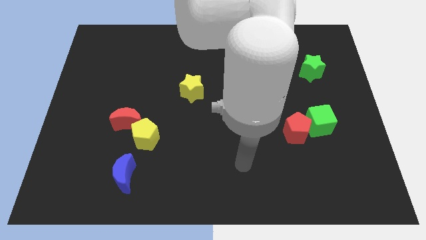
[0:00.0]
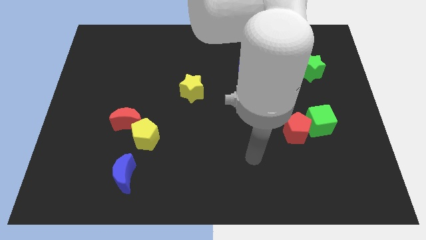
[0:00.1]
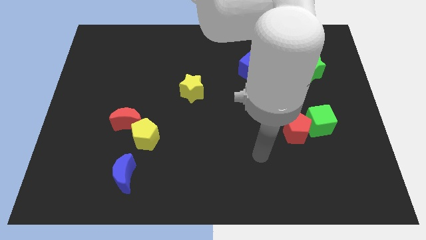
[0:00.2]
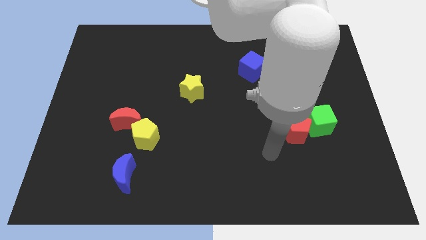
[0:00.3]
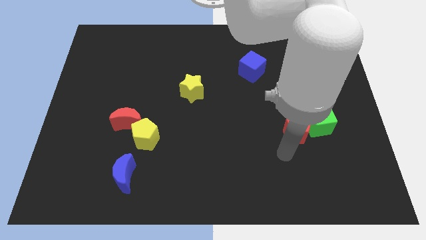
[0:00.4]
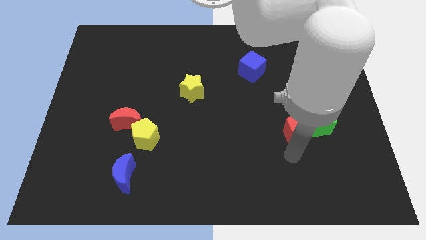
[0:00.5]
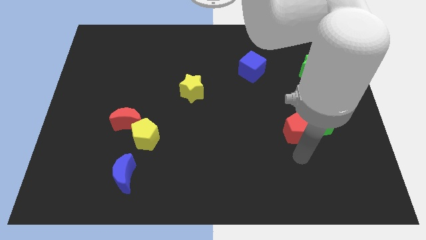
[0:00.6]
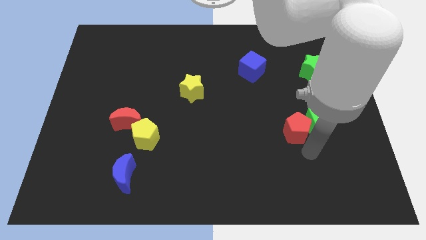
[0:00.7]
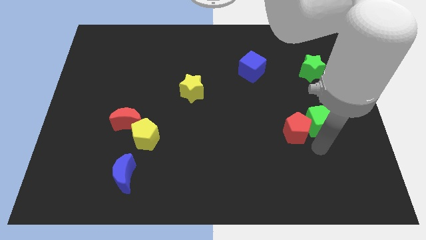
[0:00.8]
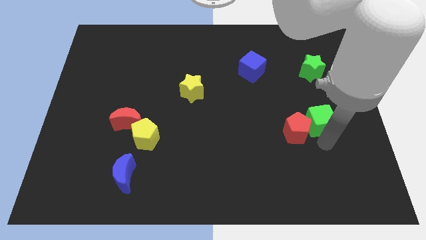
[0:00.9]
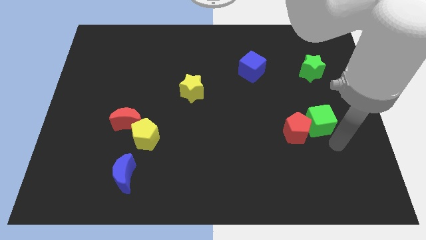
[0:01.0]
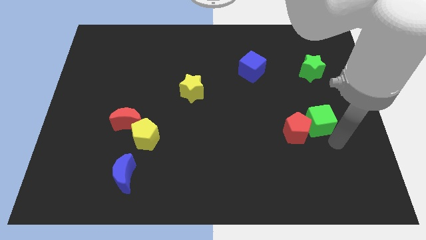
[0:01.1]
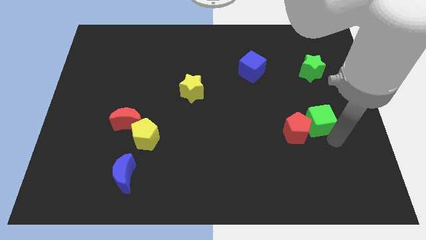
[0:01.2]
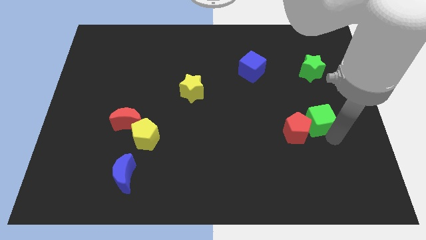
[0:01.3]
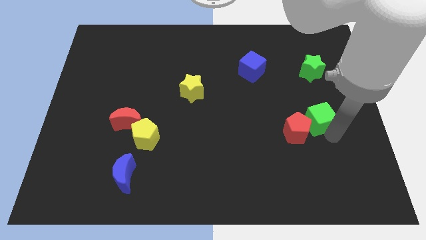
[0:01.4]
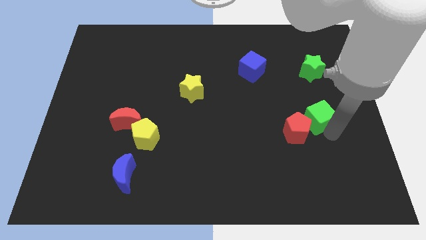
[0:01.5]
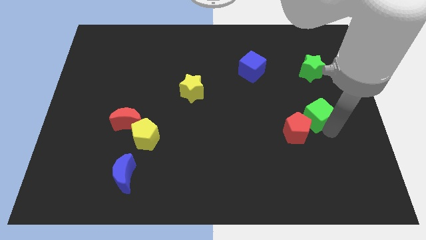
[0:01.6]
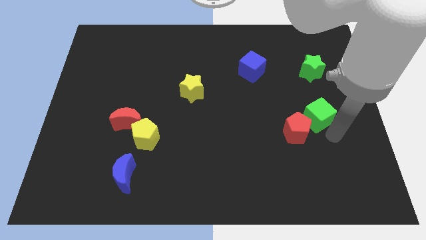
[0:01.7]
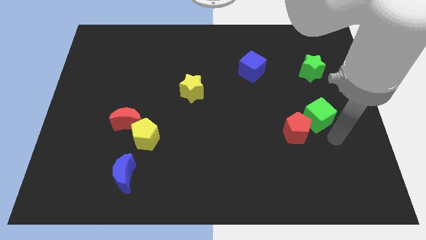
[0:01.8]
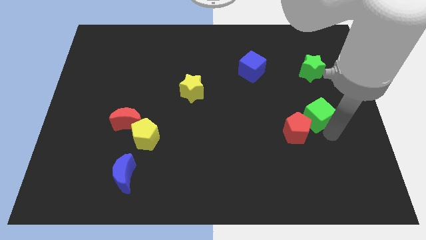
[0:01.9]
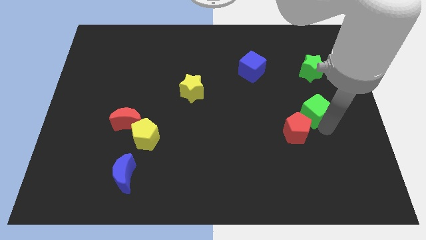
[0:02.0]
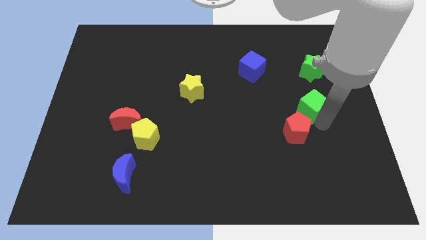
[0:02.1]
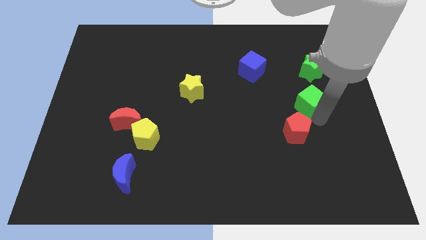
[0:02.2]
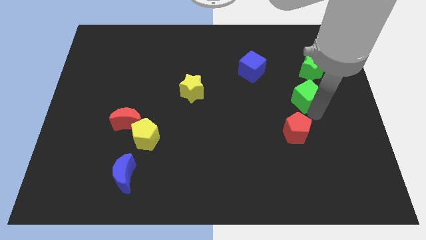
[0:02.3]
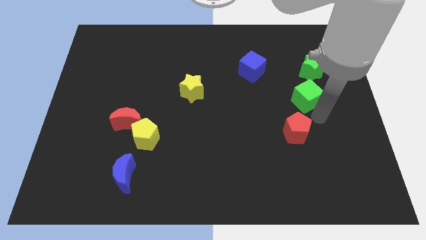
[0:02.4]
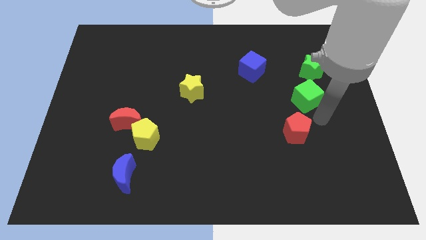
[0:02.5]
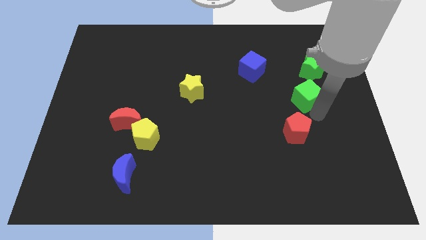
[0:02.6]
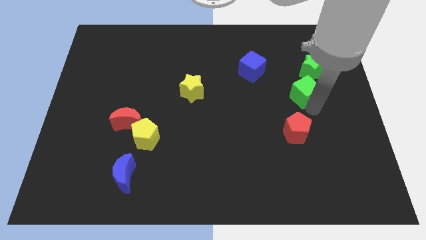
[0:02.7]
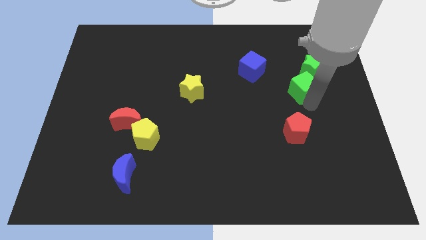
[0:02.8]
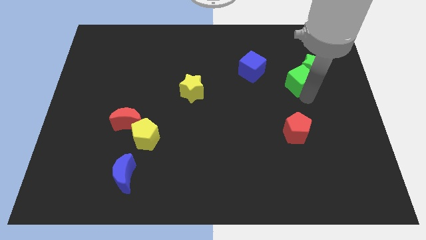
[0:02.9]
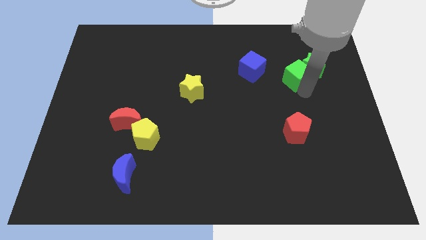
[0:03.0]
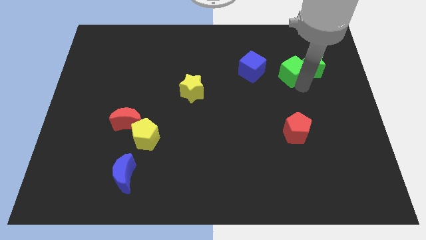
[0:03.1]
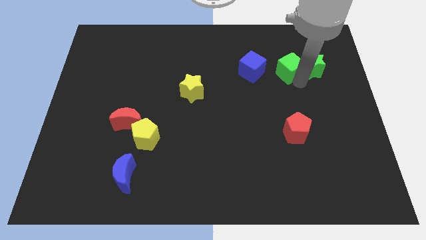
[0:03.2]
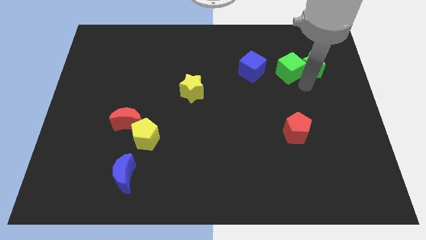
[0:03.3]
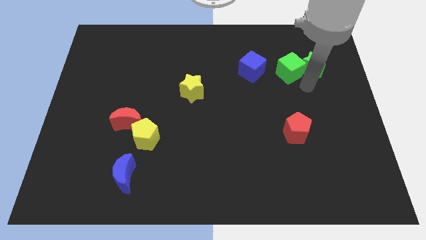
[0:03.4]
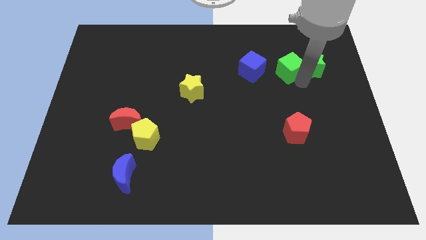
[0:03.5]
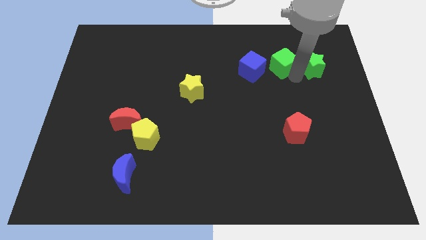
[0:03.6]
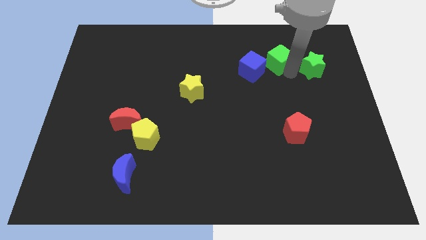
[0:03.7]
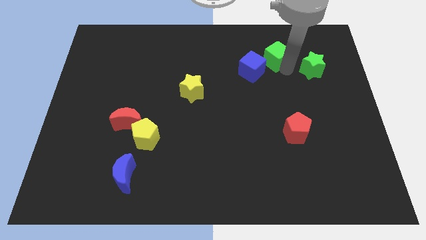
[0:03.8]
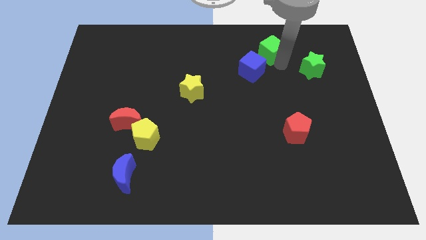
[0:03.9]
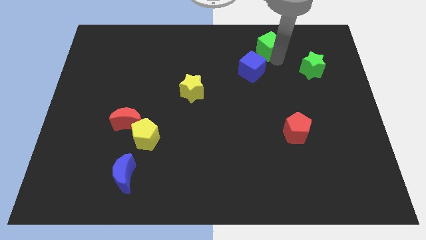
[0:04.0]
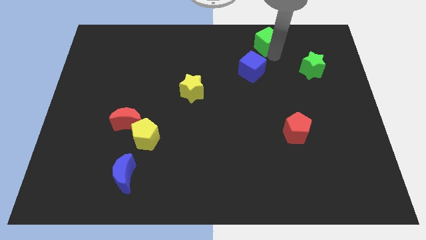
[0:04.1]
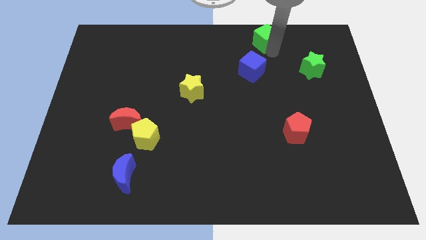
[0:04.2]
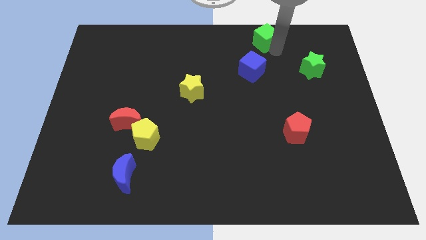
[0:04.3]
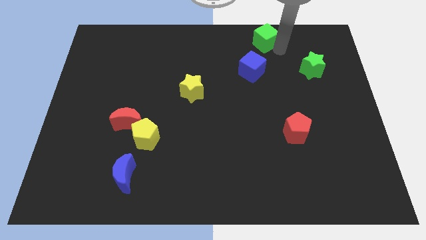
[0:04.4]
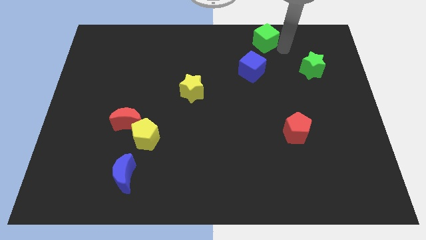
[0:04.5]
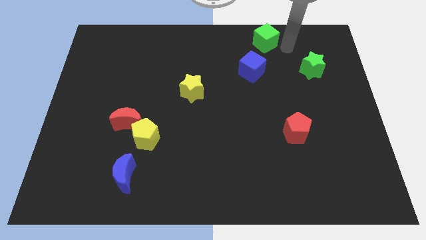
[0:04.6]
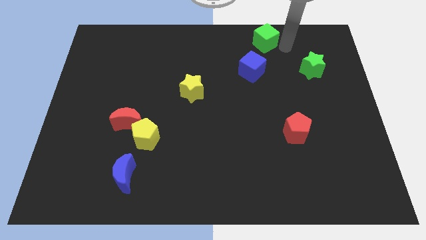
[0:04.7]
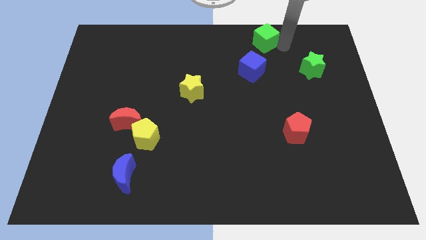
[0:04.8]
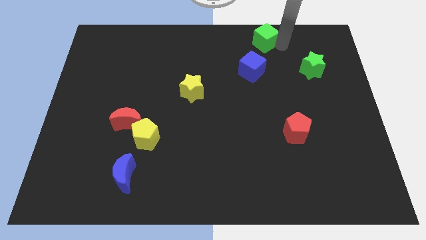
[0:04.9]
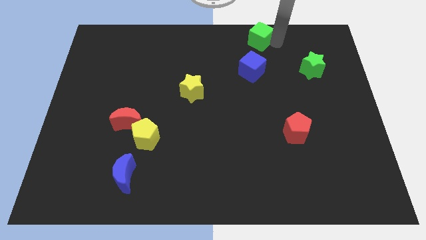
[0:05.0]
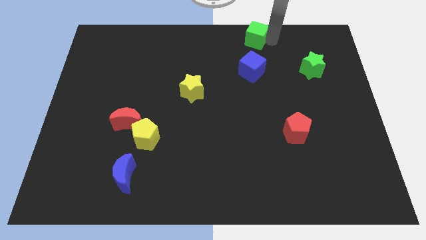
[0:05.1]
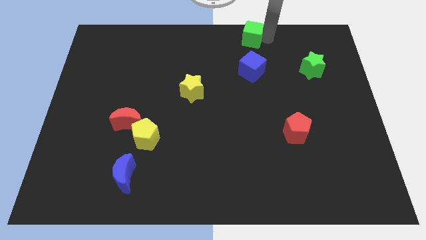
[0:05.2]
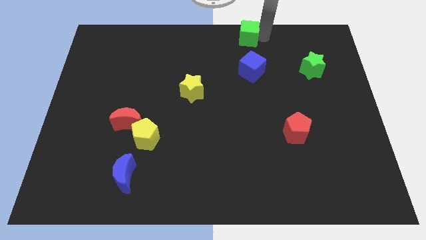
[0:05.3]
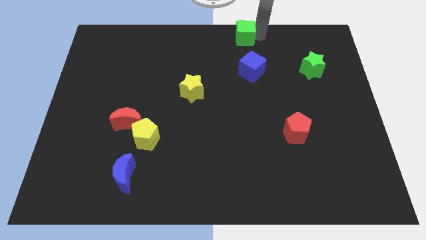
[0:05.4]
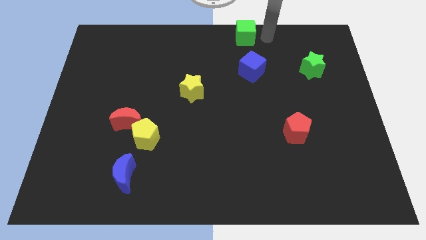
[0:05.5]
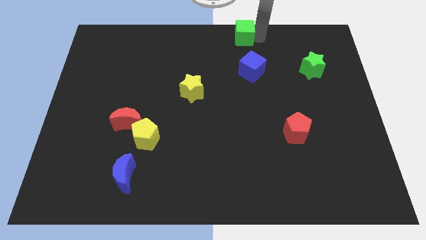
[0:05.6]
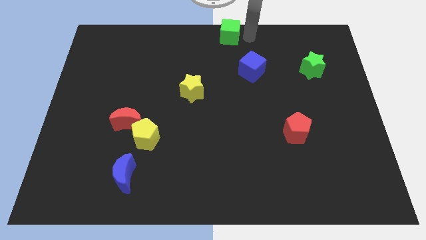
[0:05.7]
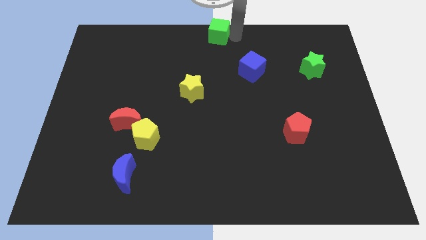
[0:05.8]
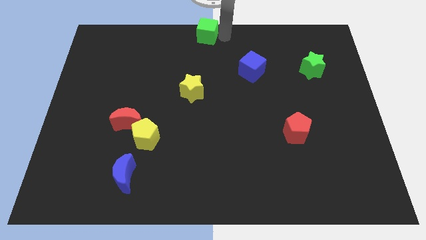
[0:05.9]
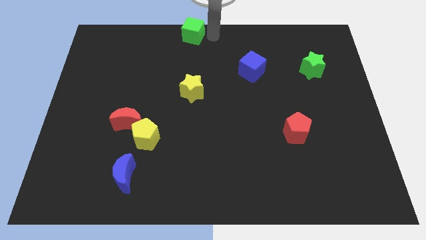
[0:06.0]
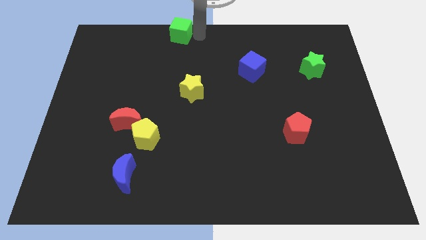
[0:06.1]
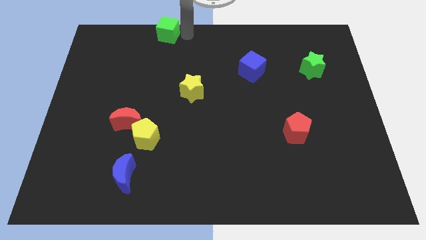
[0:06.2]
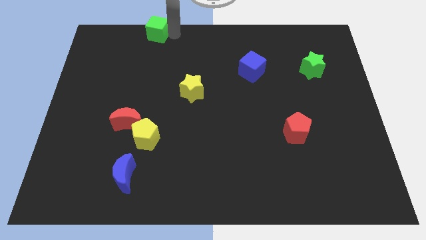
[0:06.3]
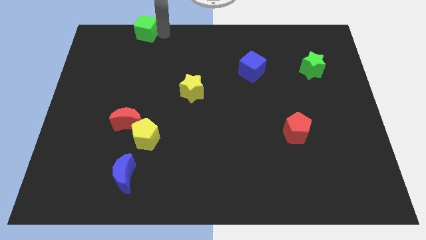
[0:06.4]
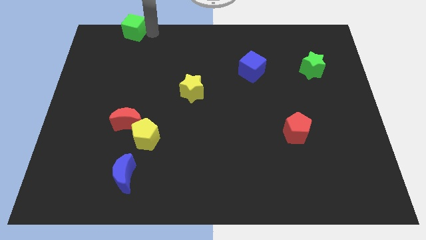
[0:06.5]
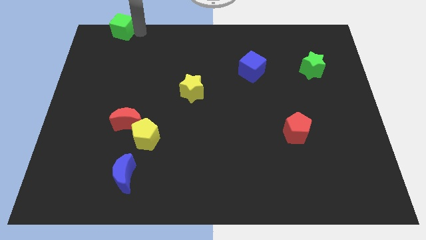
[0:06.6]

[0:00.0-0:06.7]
slide the green cube to the top left of the board
